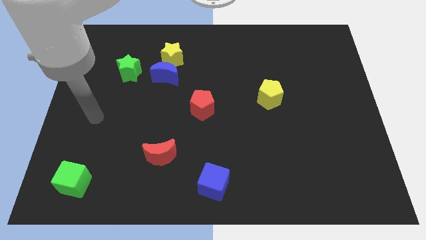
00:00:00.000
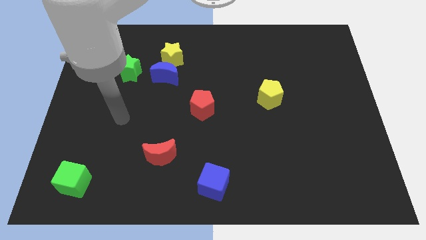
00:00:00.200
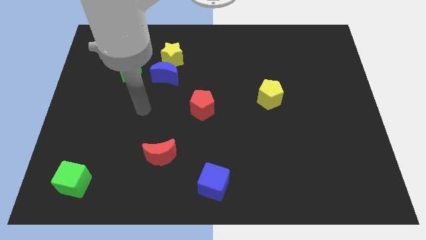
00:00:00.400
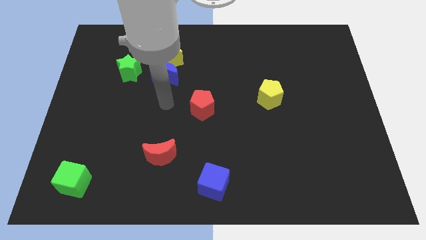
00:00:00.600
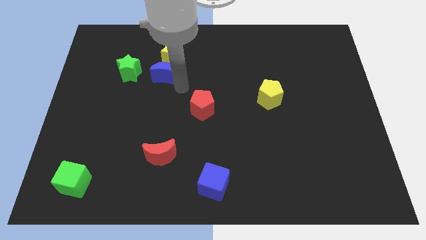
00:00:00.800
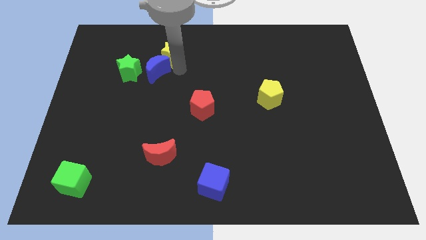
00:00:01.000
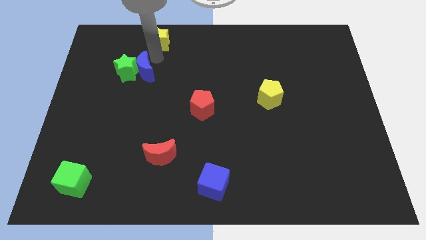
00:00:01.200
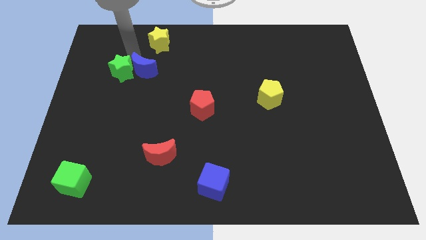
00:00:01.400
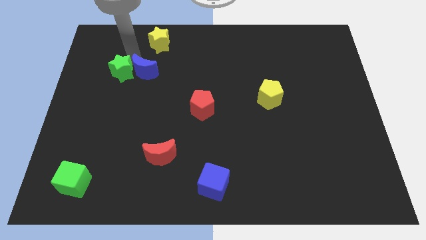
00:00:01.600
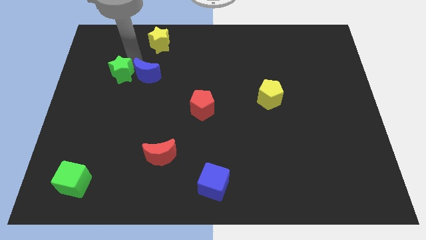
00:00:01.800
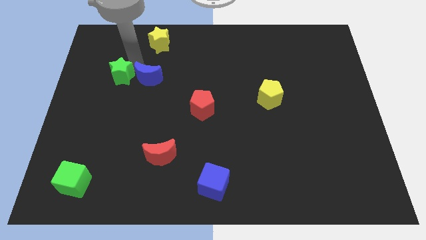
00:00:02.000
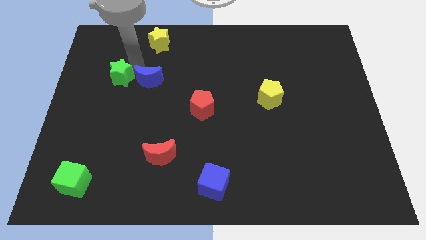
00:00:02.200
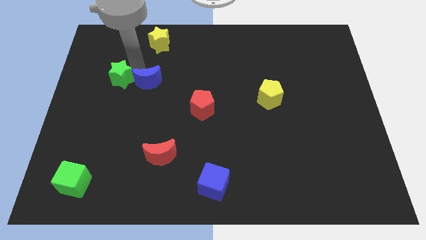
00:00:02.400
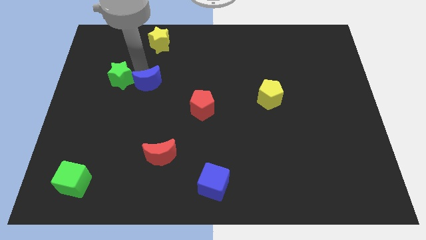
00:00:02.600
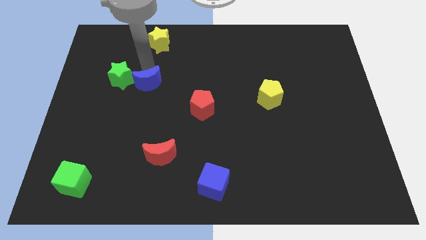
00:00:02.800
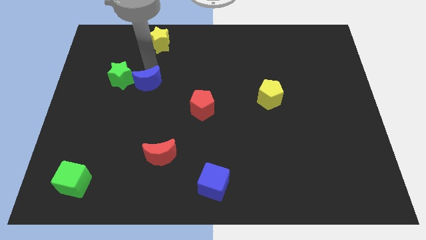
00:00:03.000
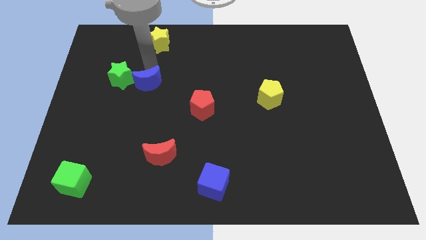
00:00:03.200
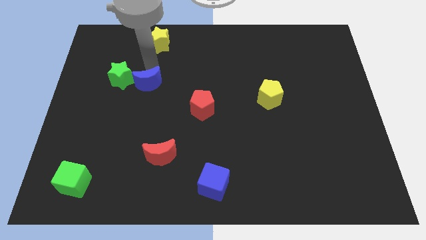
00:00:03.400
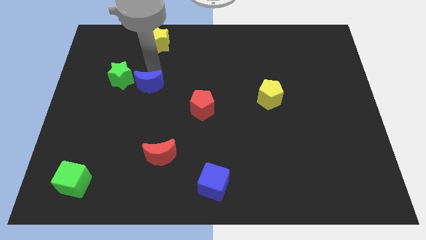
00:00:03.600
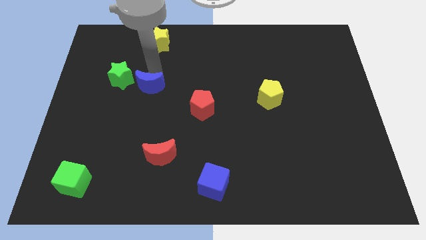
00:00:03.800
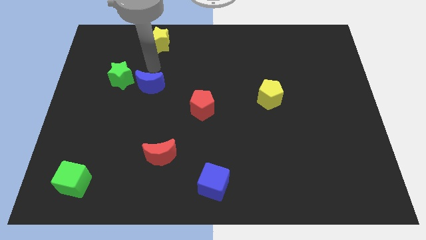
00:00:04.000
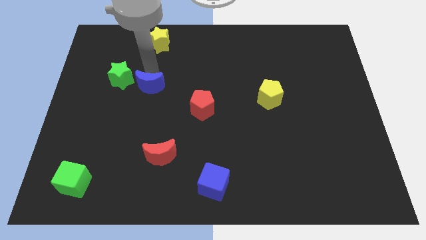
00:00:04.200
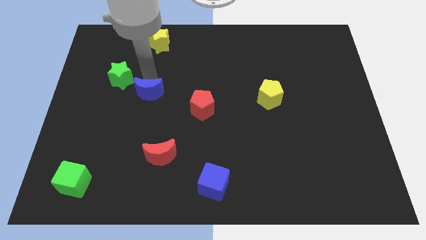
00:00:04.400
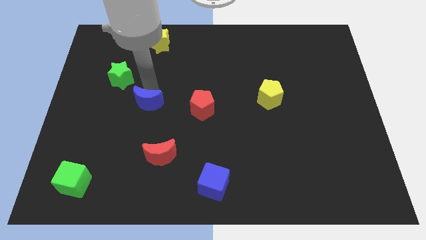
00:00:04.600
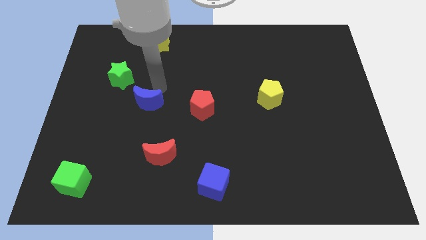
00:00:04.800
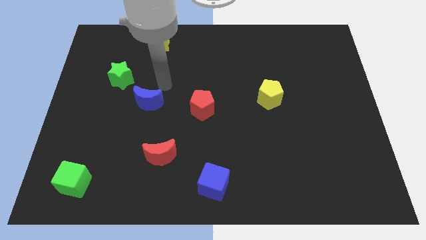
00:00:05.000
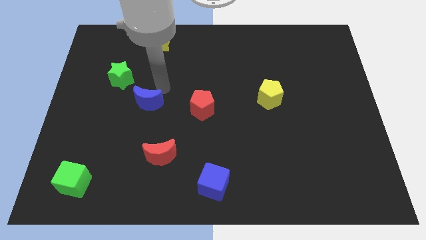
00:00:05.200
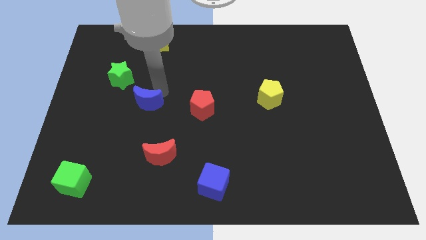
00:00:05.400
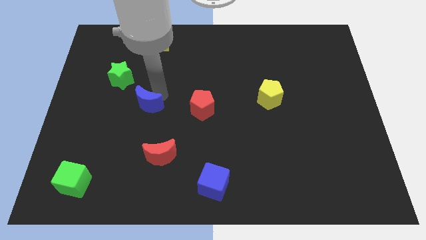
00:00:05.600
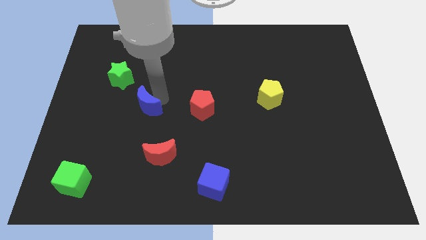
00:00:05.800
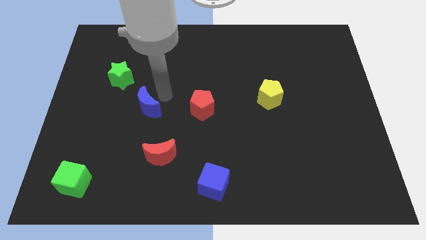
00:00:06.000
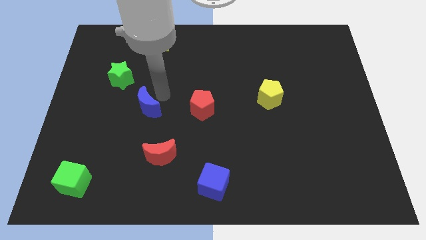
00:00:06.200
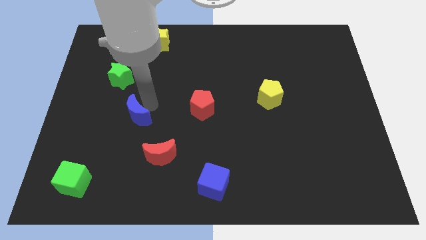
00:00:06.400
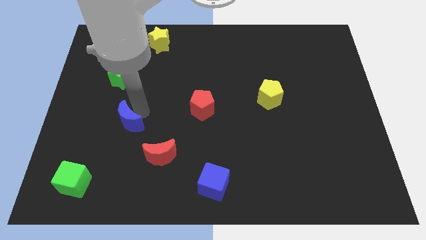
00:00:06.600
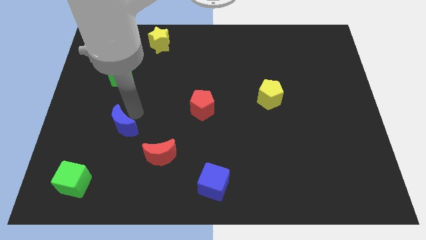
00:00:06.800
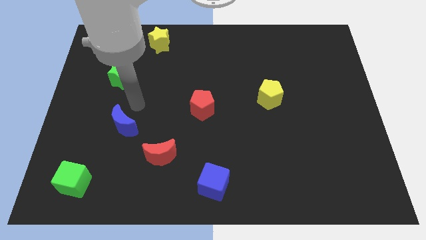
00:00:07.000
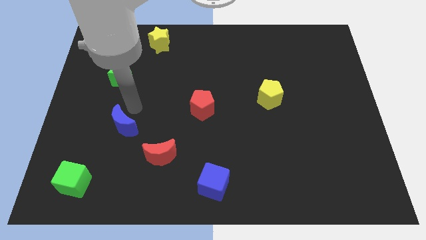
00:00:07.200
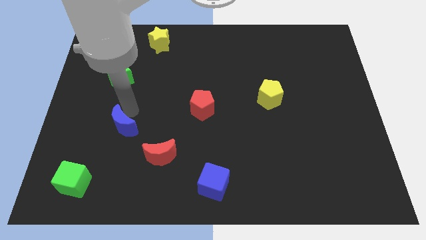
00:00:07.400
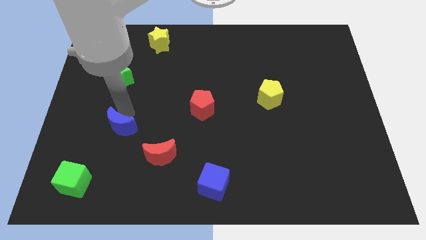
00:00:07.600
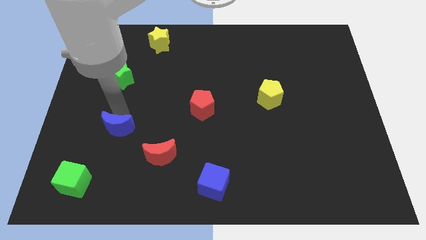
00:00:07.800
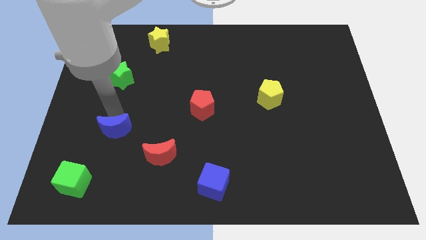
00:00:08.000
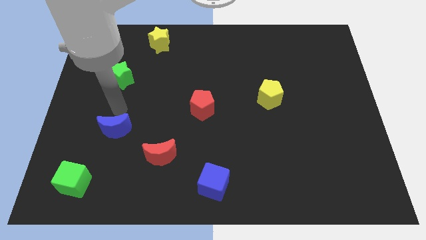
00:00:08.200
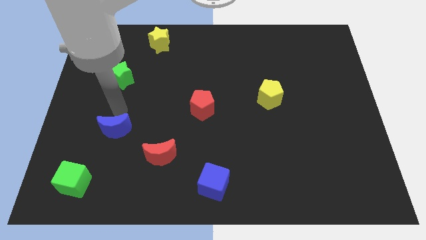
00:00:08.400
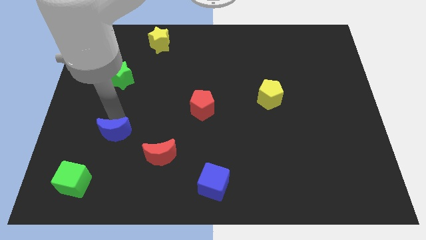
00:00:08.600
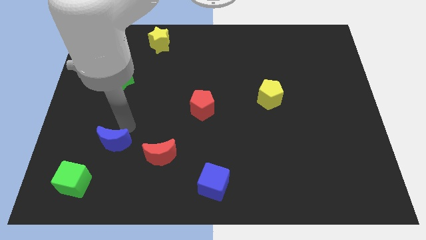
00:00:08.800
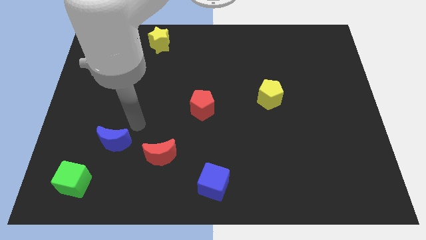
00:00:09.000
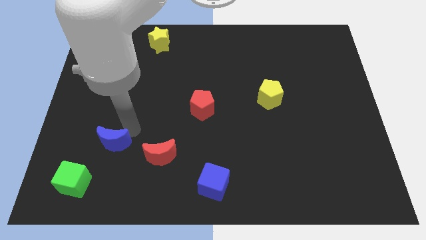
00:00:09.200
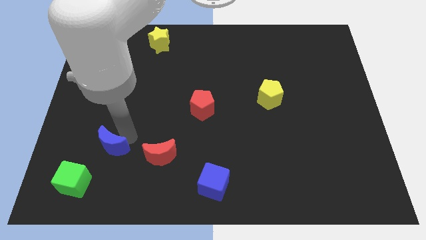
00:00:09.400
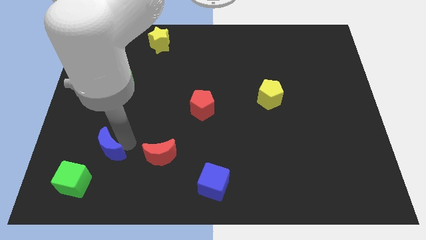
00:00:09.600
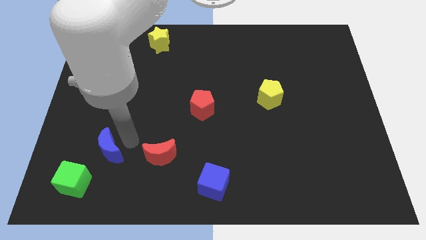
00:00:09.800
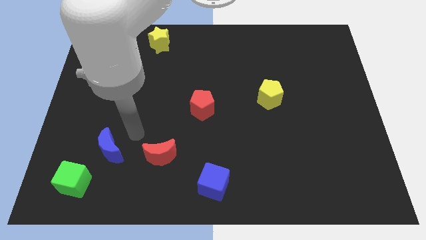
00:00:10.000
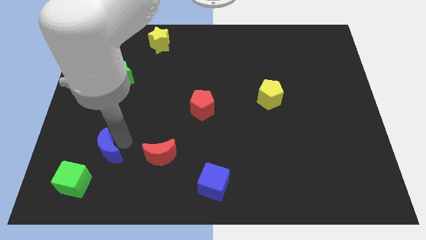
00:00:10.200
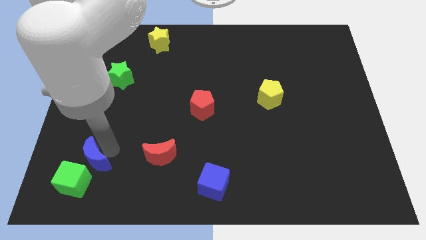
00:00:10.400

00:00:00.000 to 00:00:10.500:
move the blue moon next to the green cube

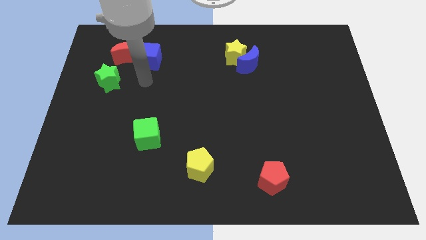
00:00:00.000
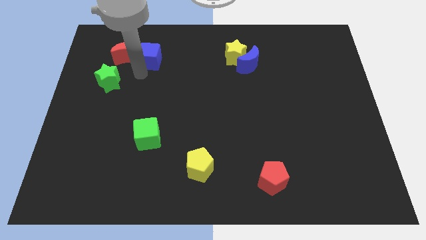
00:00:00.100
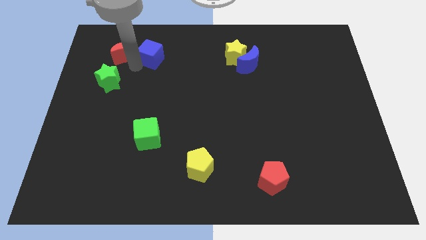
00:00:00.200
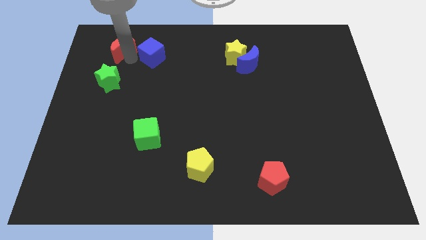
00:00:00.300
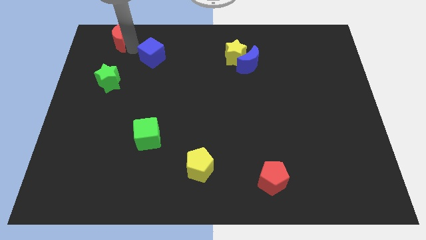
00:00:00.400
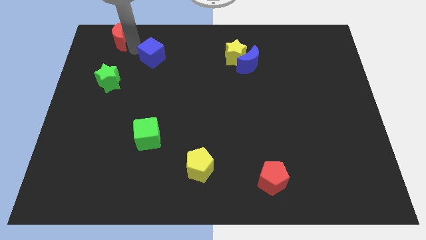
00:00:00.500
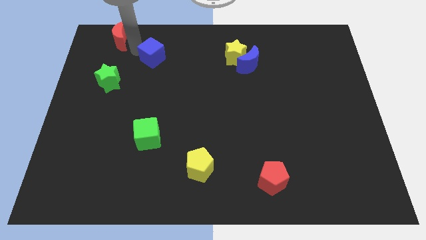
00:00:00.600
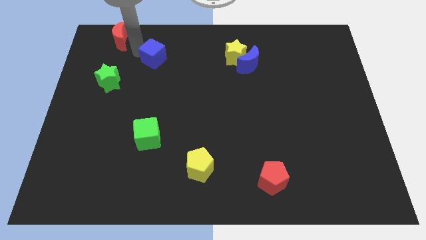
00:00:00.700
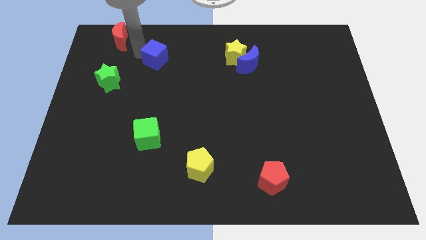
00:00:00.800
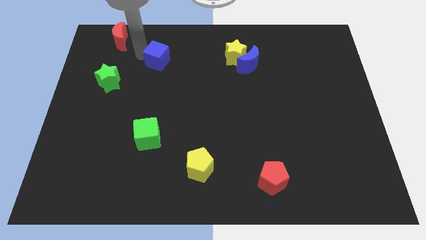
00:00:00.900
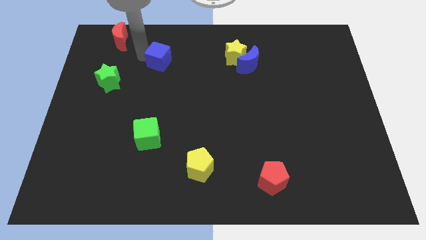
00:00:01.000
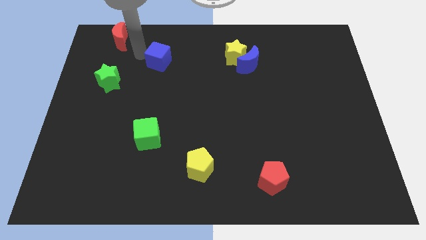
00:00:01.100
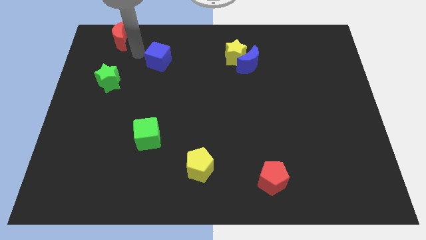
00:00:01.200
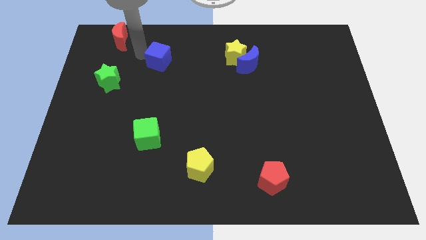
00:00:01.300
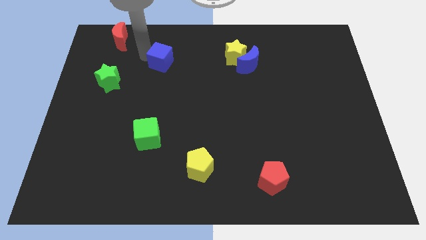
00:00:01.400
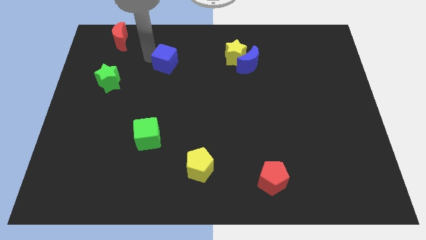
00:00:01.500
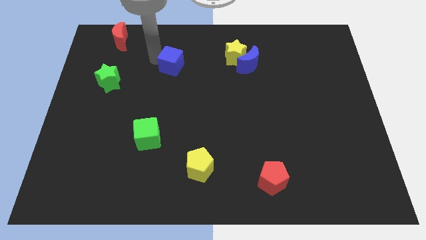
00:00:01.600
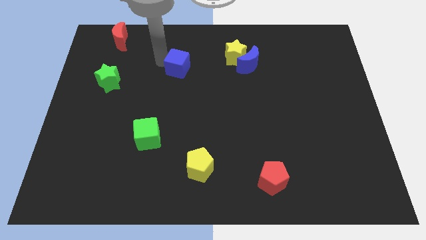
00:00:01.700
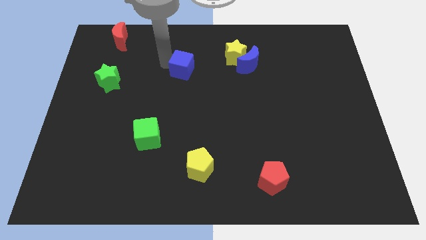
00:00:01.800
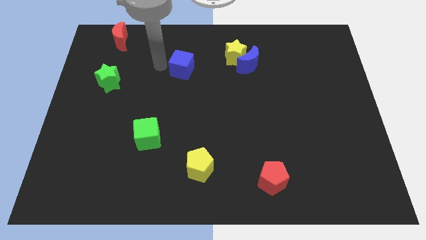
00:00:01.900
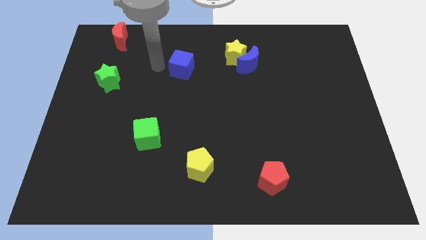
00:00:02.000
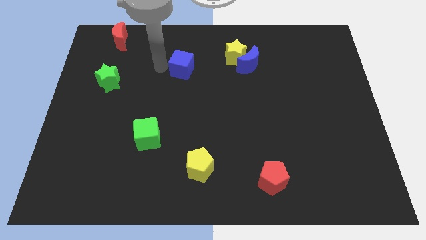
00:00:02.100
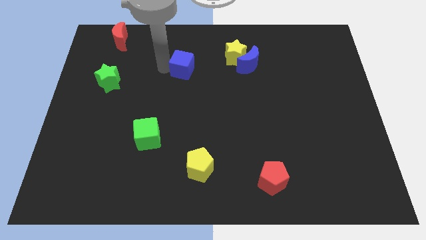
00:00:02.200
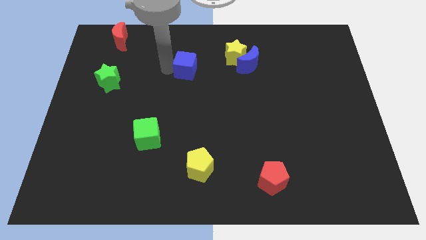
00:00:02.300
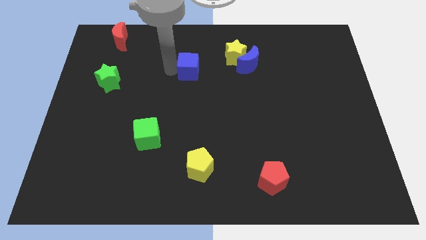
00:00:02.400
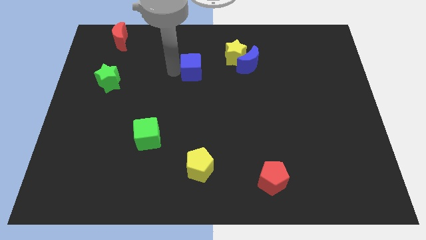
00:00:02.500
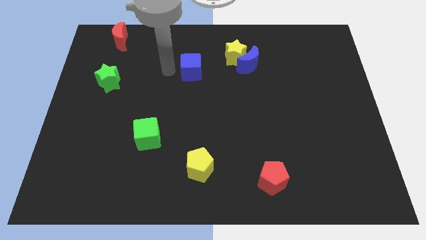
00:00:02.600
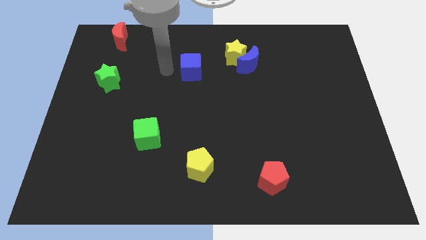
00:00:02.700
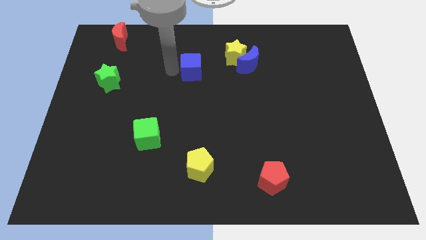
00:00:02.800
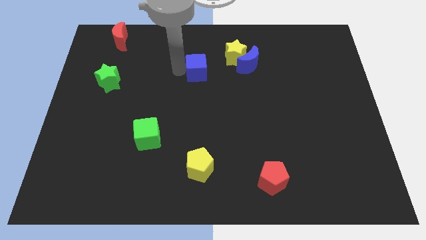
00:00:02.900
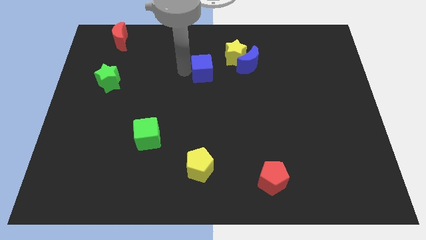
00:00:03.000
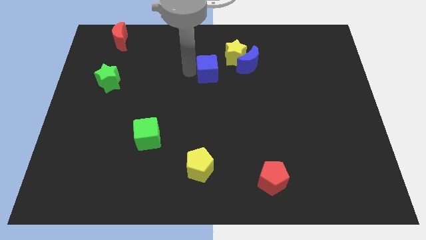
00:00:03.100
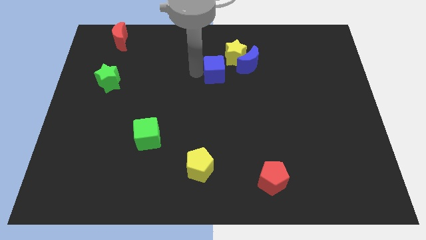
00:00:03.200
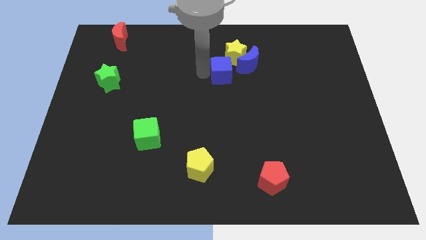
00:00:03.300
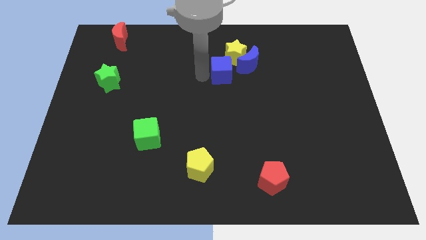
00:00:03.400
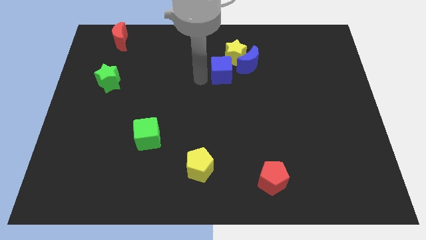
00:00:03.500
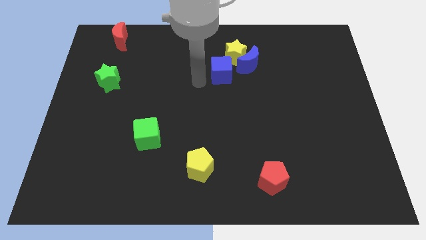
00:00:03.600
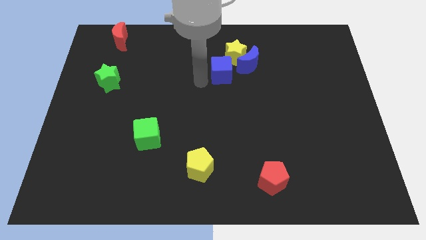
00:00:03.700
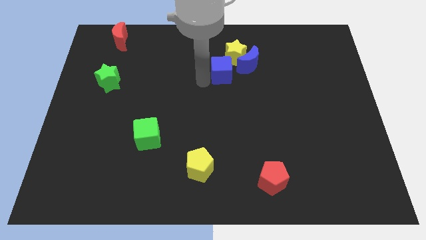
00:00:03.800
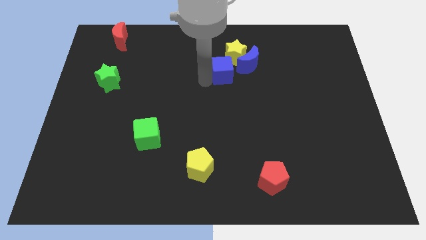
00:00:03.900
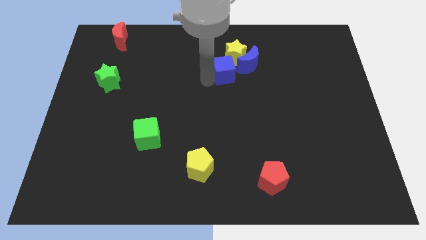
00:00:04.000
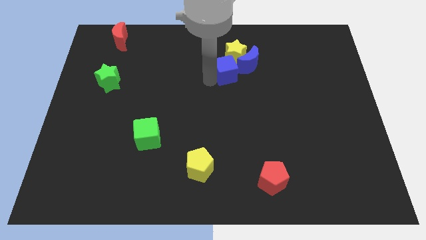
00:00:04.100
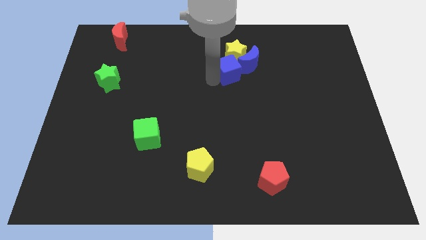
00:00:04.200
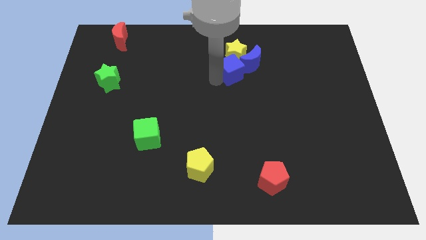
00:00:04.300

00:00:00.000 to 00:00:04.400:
put the blue cube next to the blue moon
